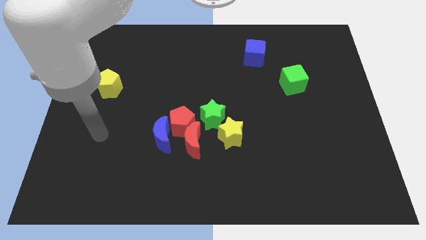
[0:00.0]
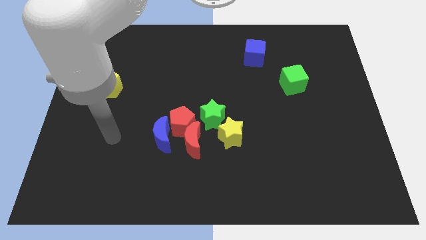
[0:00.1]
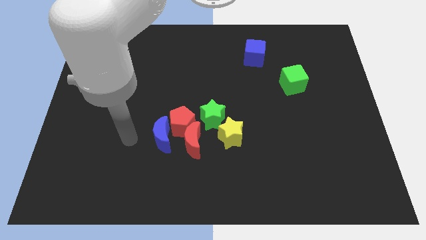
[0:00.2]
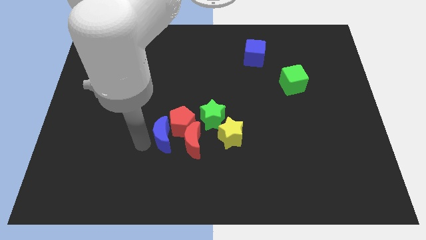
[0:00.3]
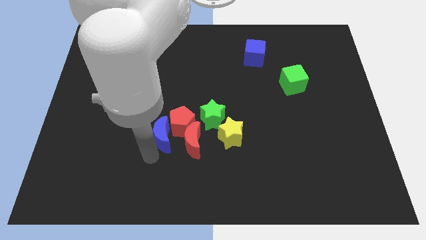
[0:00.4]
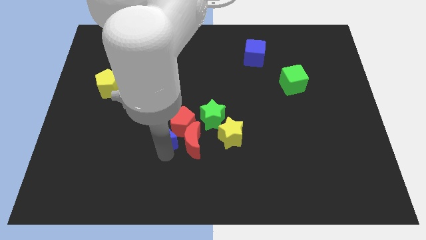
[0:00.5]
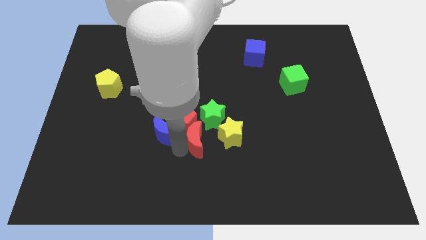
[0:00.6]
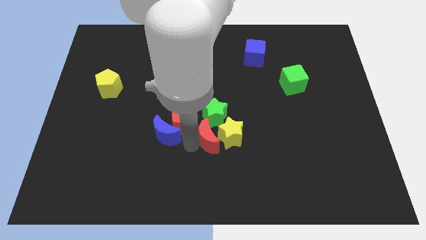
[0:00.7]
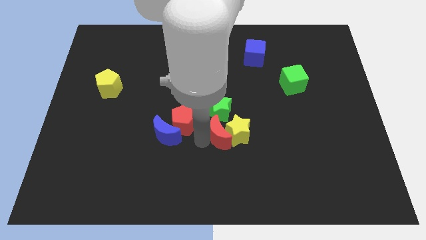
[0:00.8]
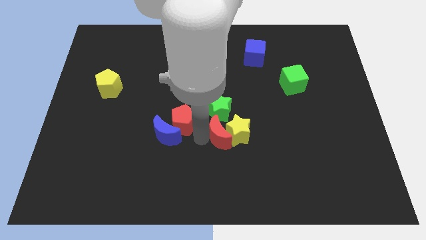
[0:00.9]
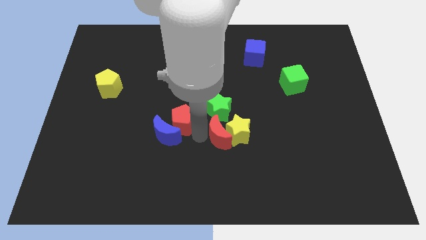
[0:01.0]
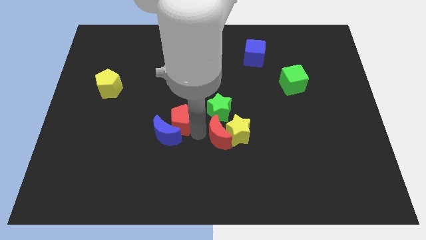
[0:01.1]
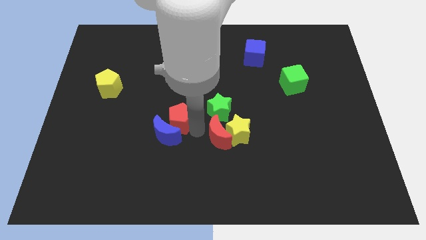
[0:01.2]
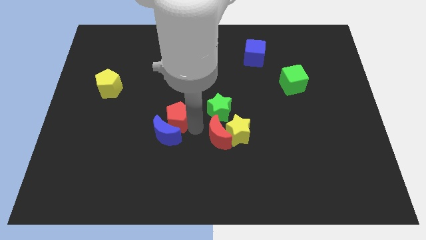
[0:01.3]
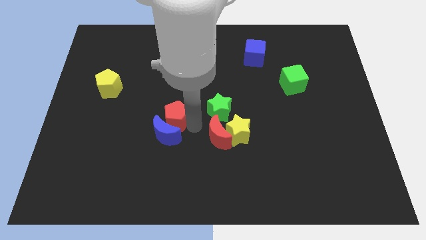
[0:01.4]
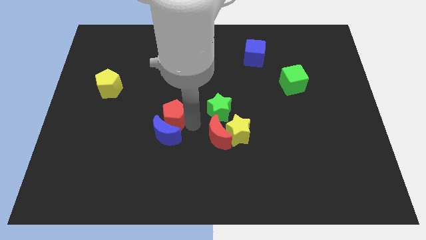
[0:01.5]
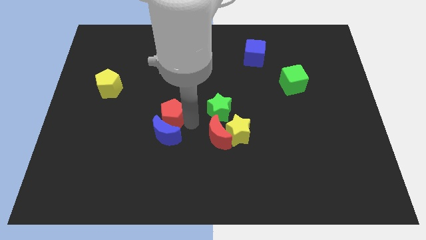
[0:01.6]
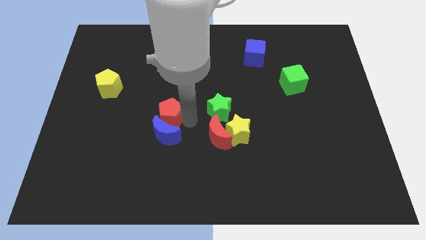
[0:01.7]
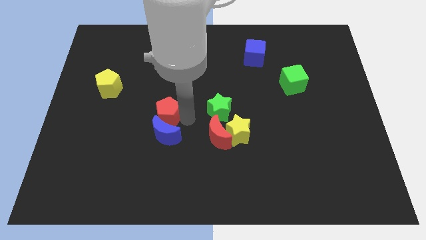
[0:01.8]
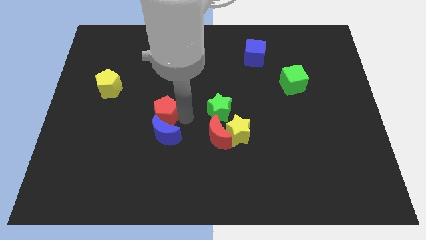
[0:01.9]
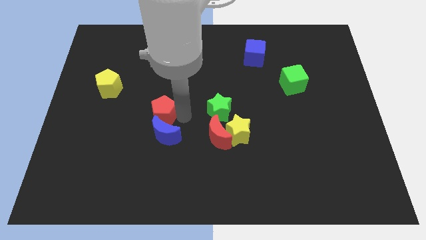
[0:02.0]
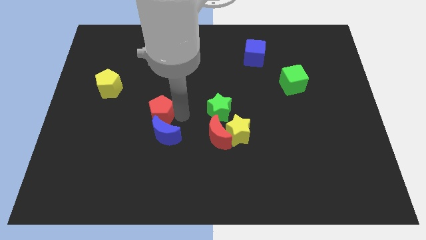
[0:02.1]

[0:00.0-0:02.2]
pull the red pentagon apart from the group

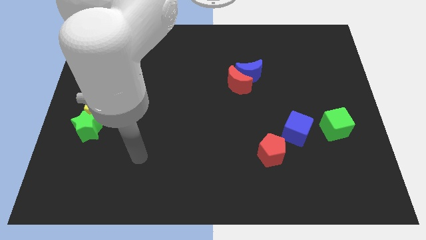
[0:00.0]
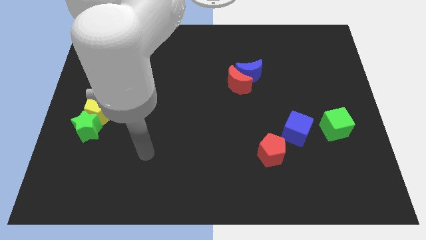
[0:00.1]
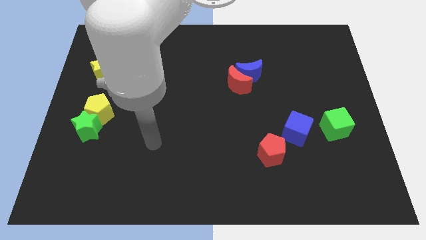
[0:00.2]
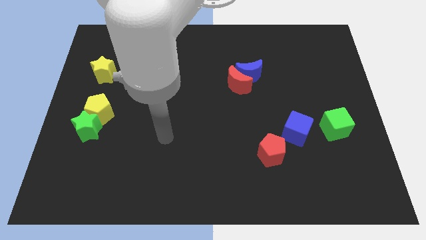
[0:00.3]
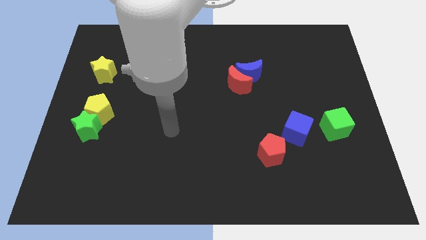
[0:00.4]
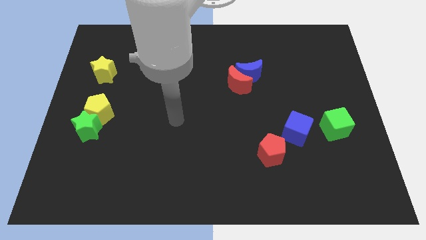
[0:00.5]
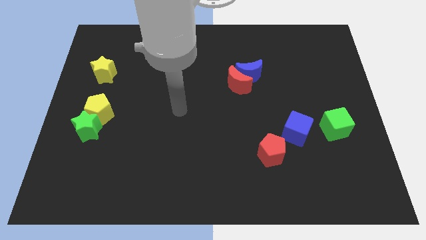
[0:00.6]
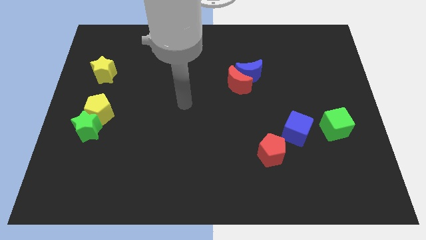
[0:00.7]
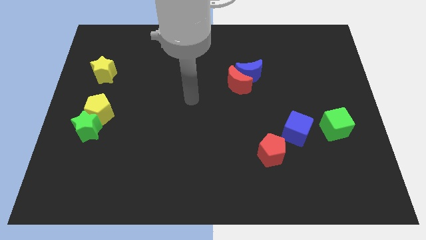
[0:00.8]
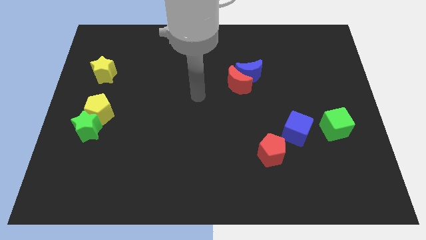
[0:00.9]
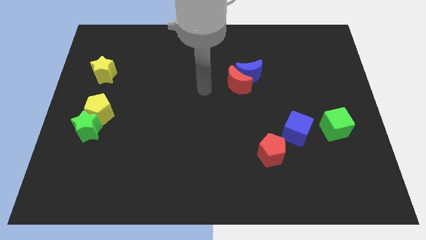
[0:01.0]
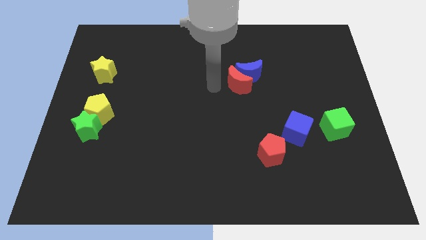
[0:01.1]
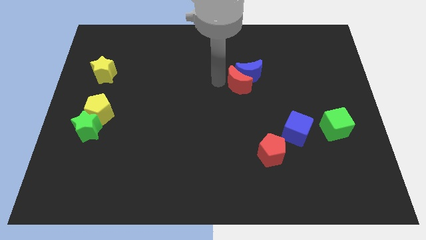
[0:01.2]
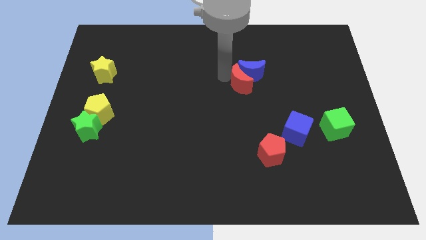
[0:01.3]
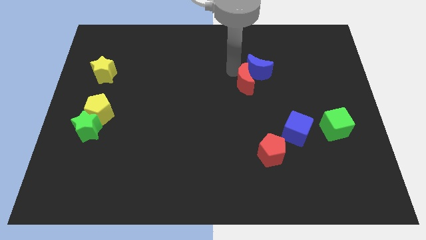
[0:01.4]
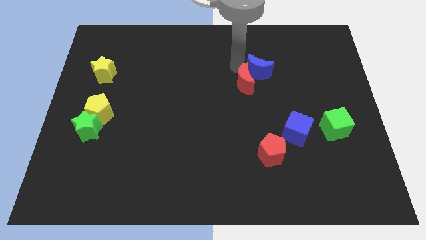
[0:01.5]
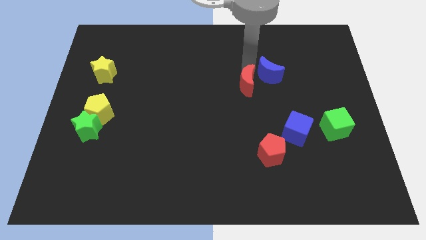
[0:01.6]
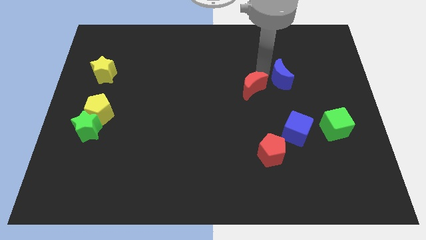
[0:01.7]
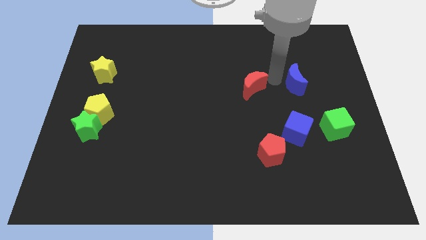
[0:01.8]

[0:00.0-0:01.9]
separate the red moon from the blue moon

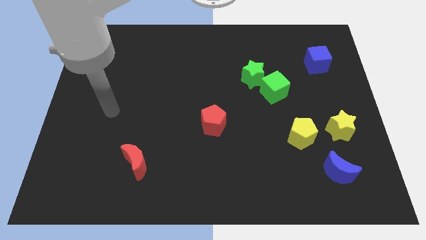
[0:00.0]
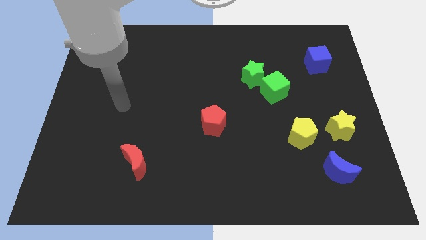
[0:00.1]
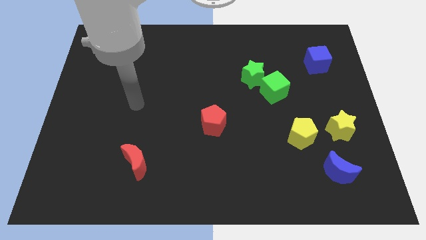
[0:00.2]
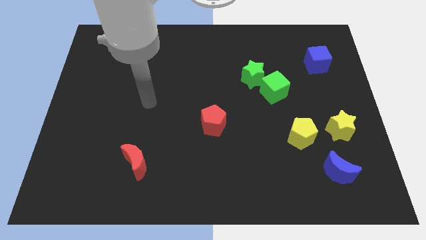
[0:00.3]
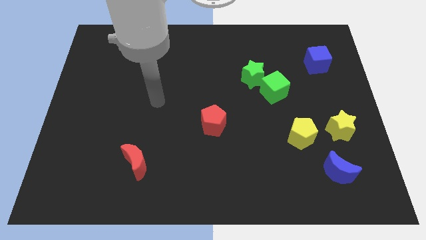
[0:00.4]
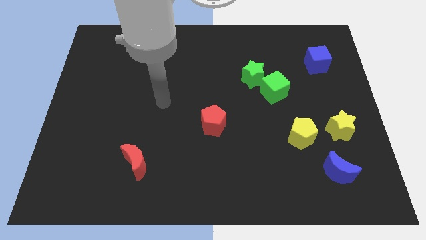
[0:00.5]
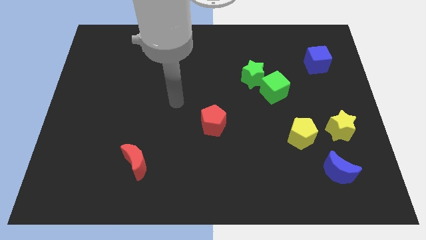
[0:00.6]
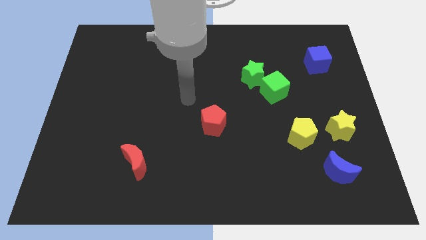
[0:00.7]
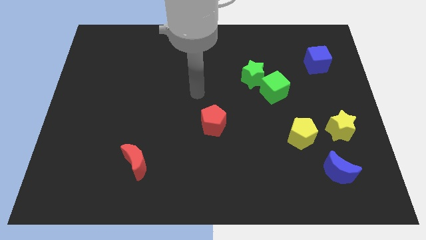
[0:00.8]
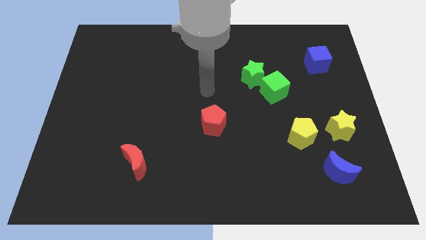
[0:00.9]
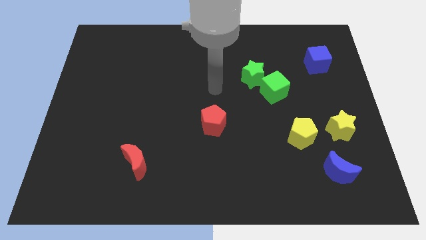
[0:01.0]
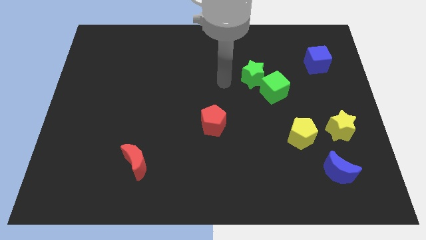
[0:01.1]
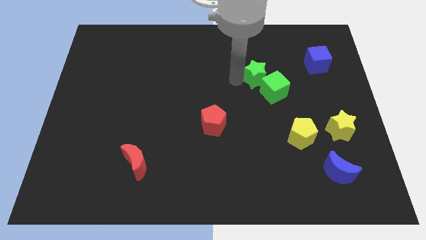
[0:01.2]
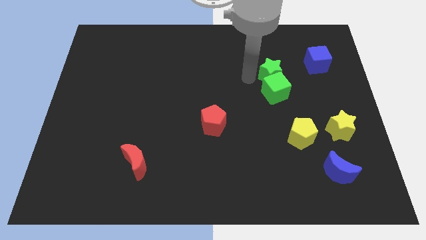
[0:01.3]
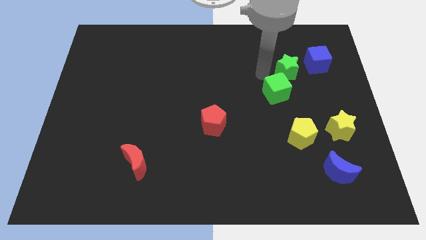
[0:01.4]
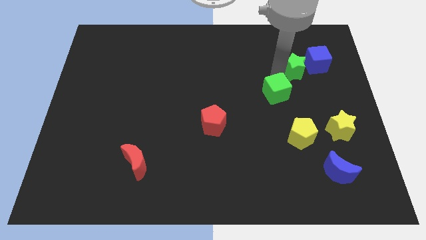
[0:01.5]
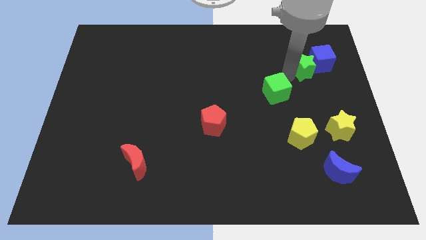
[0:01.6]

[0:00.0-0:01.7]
move the green cube away from the green star

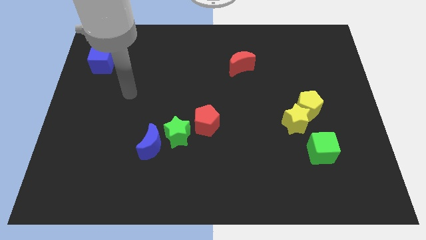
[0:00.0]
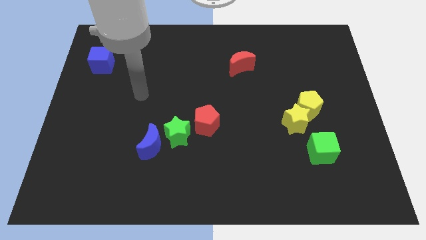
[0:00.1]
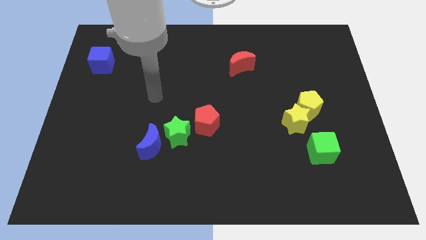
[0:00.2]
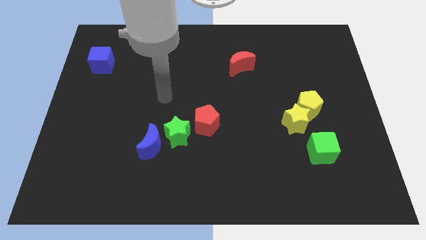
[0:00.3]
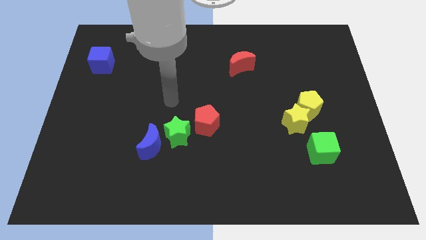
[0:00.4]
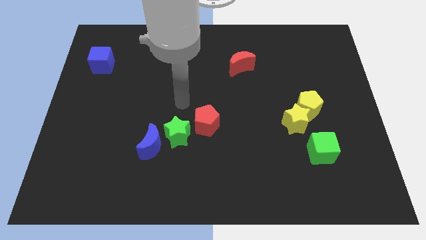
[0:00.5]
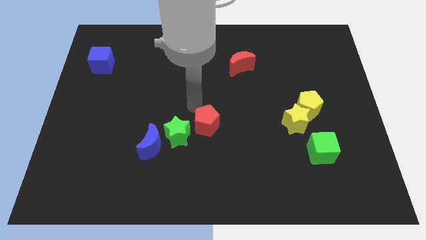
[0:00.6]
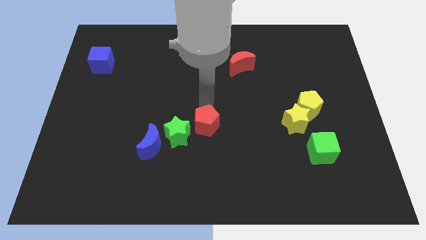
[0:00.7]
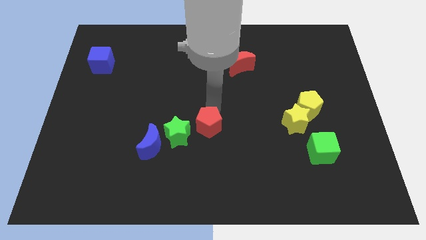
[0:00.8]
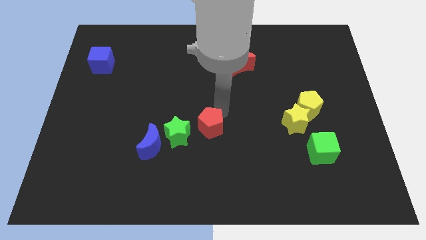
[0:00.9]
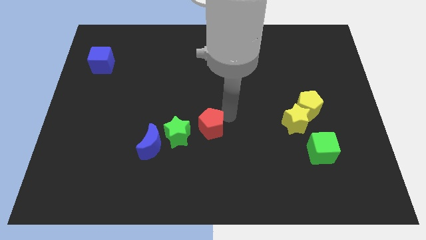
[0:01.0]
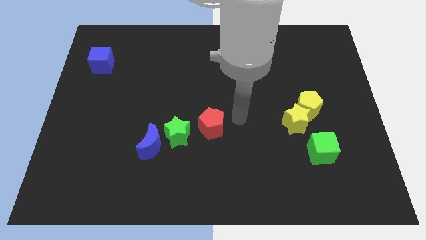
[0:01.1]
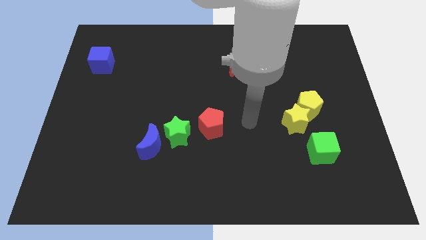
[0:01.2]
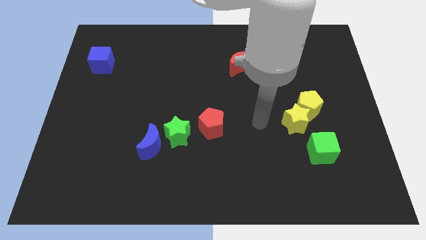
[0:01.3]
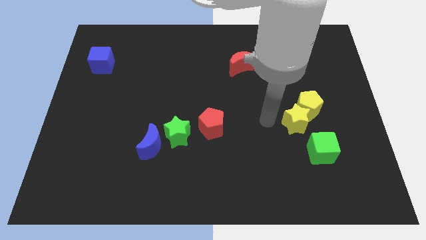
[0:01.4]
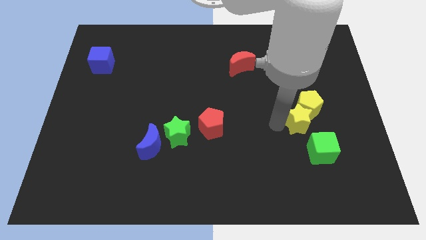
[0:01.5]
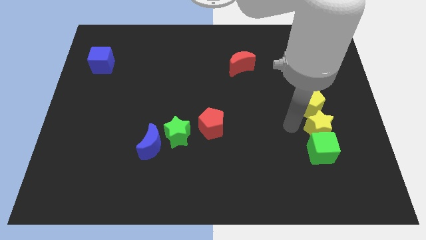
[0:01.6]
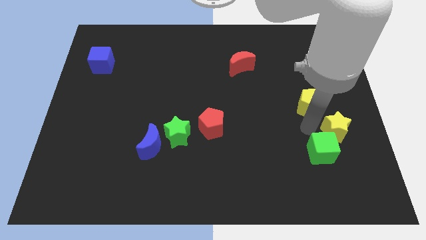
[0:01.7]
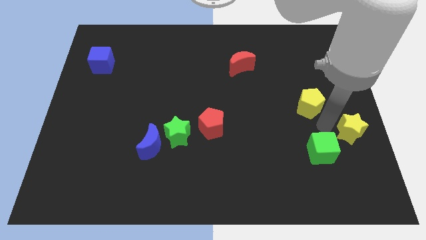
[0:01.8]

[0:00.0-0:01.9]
move the yellow pentagon away from the yellow star

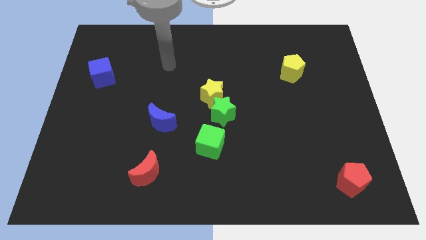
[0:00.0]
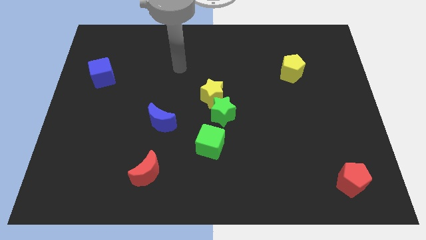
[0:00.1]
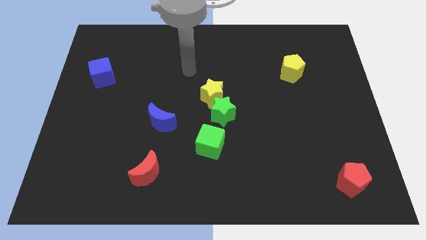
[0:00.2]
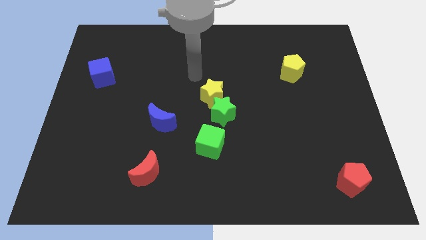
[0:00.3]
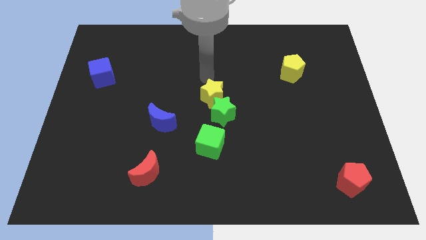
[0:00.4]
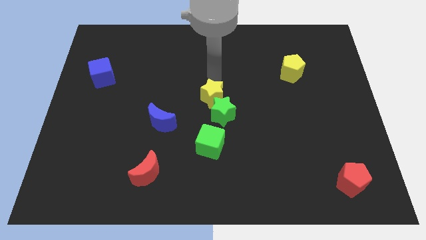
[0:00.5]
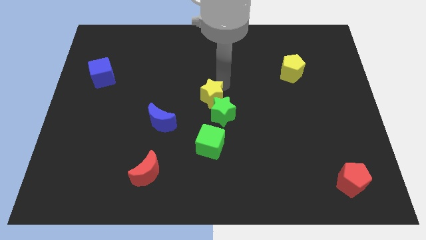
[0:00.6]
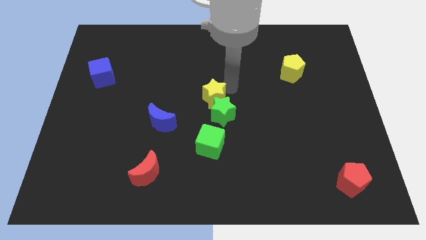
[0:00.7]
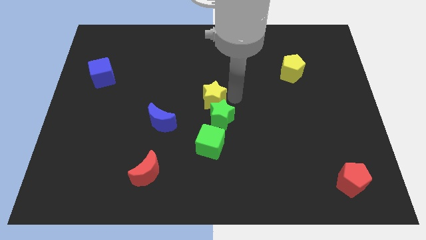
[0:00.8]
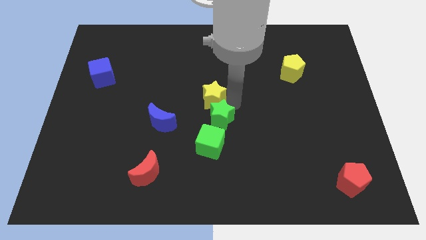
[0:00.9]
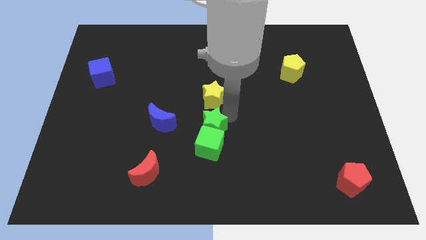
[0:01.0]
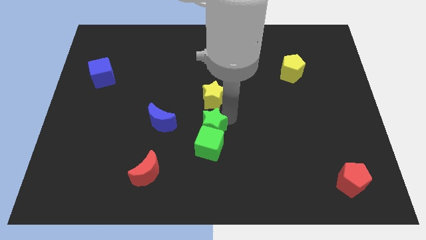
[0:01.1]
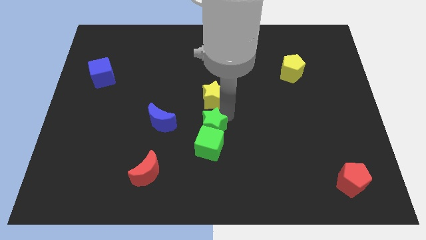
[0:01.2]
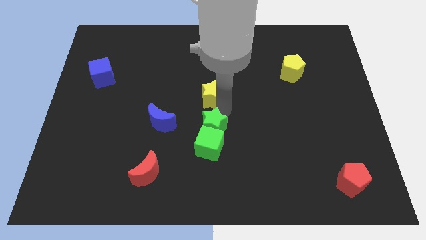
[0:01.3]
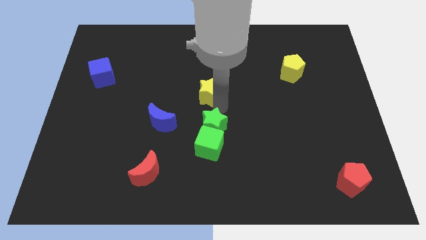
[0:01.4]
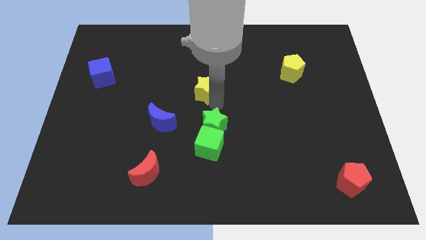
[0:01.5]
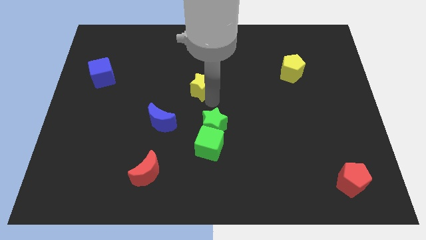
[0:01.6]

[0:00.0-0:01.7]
separate the yellow star from the green star
